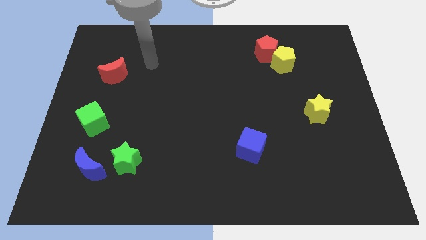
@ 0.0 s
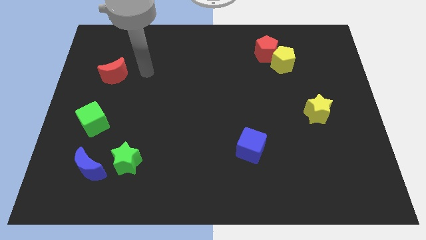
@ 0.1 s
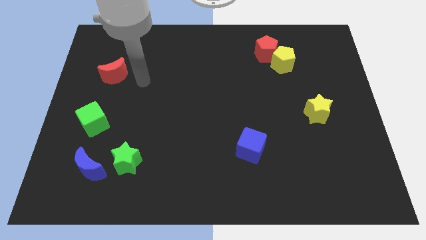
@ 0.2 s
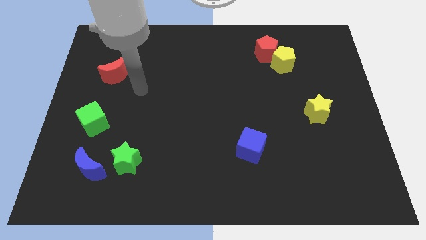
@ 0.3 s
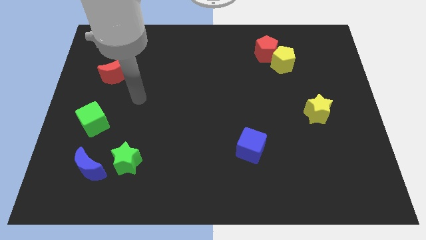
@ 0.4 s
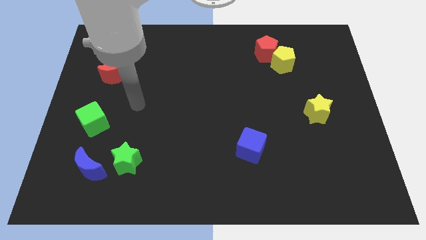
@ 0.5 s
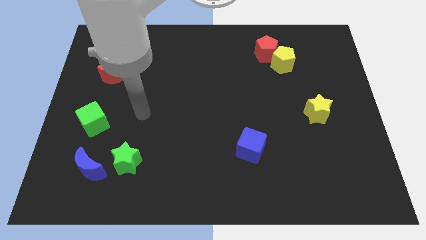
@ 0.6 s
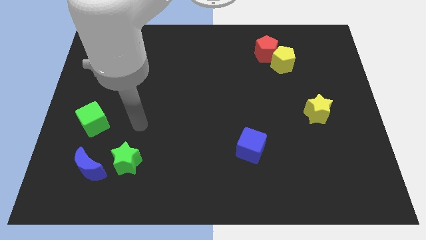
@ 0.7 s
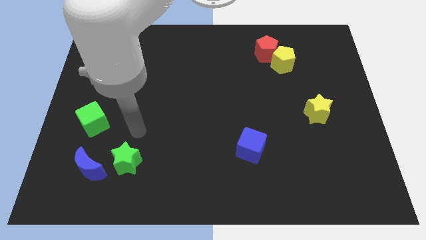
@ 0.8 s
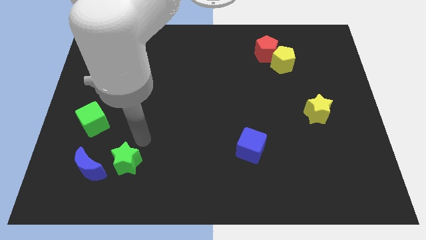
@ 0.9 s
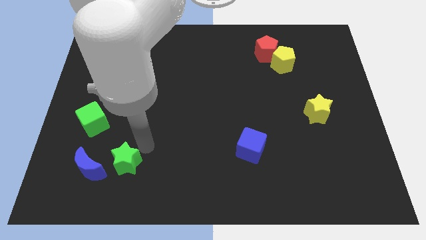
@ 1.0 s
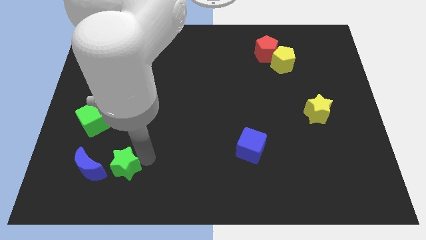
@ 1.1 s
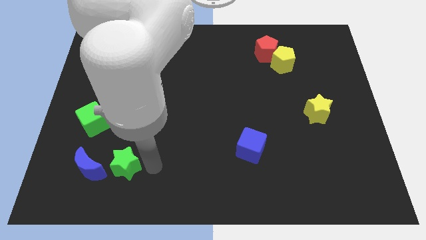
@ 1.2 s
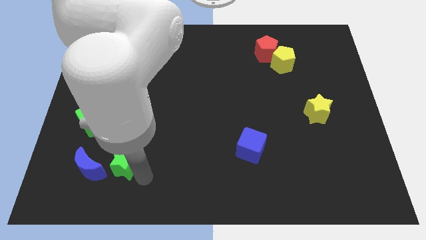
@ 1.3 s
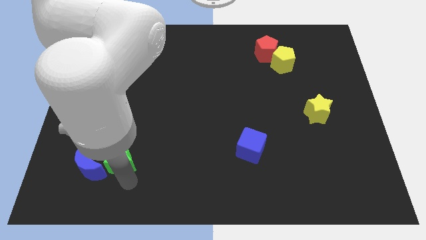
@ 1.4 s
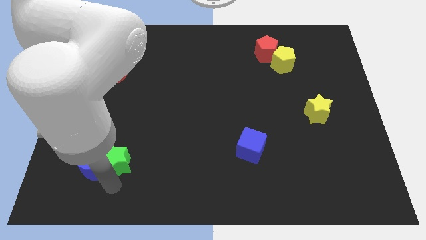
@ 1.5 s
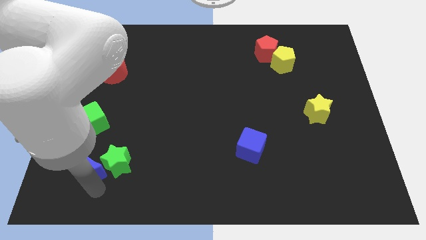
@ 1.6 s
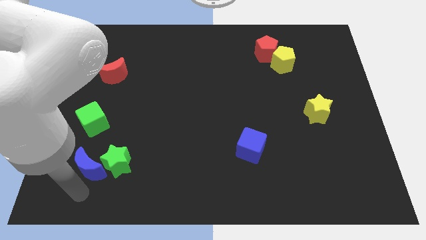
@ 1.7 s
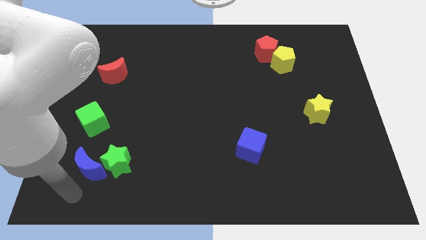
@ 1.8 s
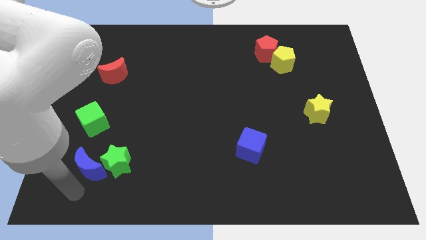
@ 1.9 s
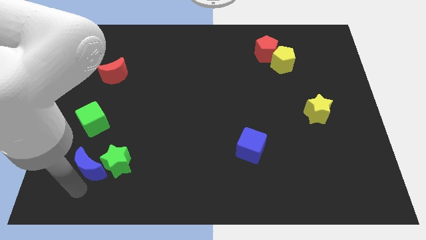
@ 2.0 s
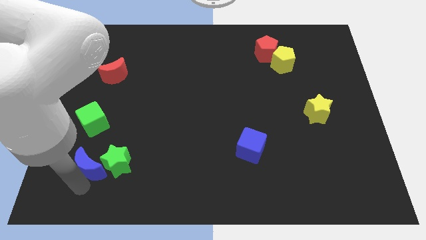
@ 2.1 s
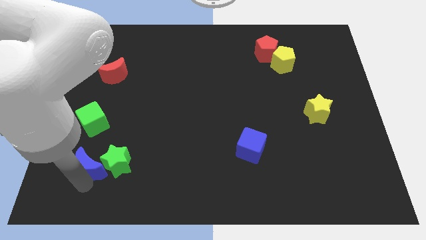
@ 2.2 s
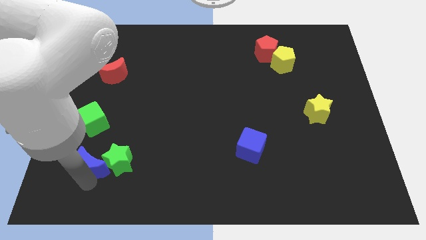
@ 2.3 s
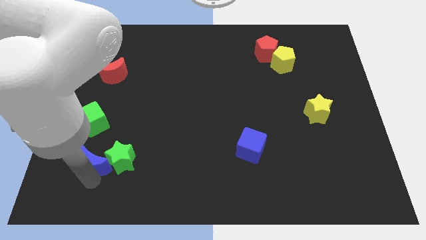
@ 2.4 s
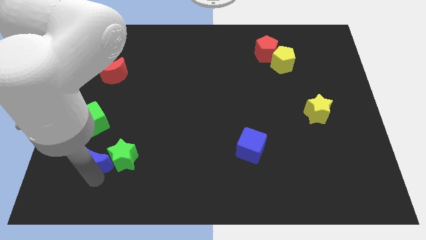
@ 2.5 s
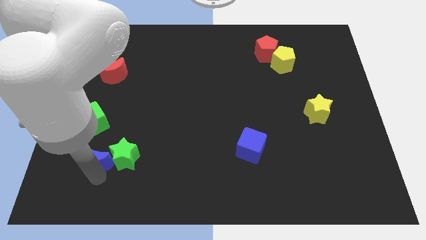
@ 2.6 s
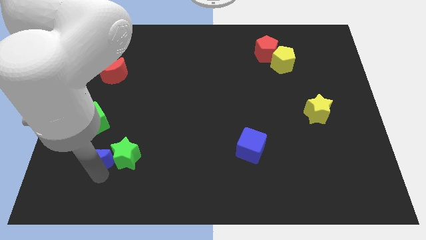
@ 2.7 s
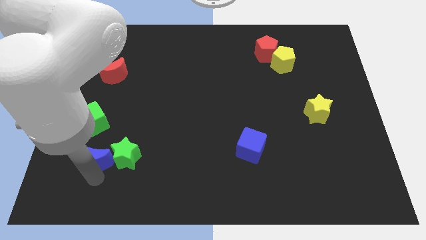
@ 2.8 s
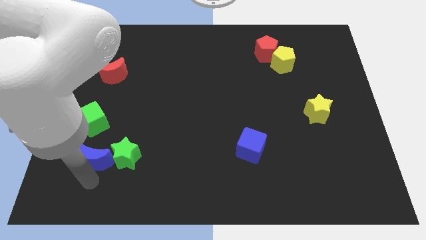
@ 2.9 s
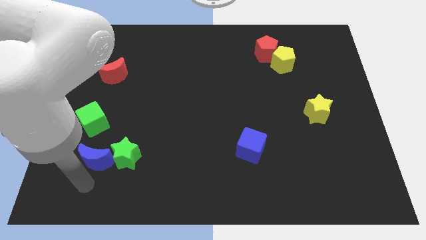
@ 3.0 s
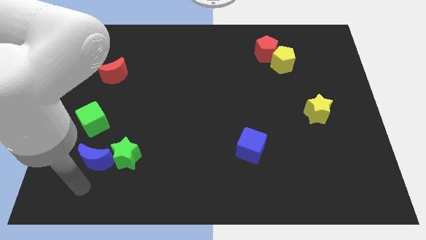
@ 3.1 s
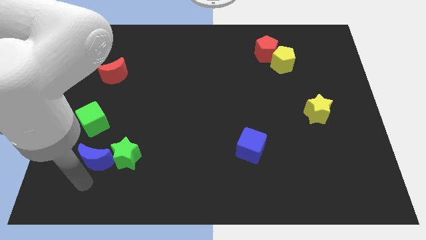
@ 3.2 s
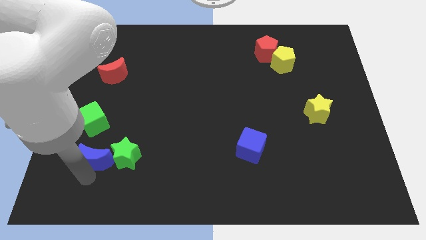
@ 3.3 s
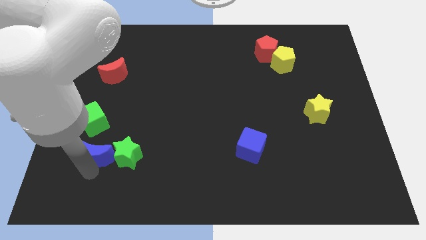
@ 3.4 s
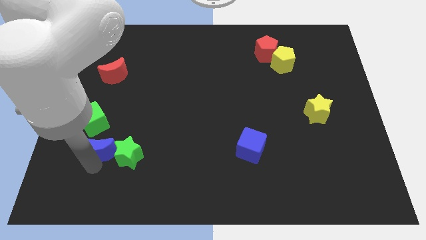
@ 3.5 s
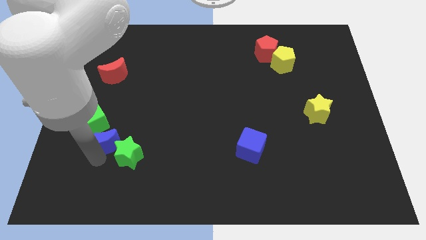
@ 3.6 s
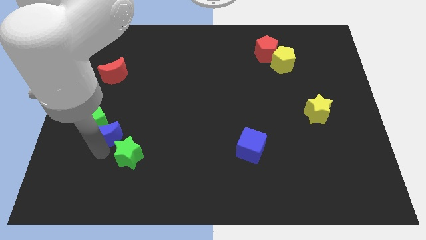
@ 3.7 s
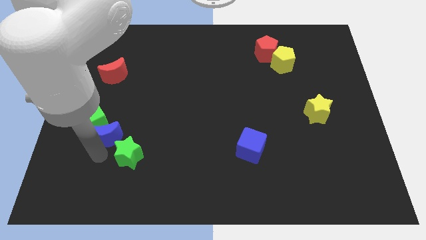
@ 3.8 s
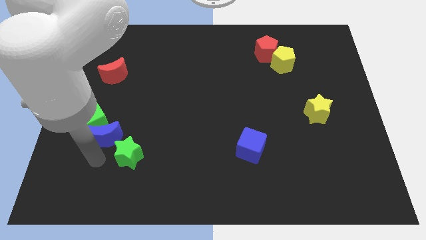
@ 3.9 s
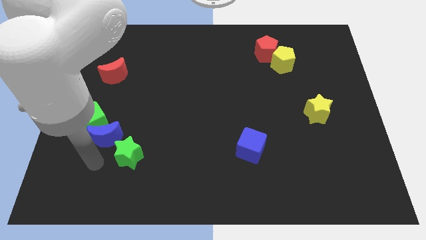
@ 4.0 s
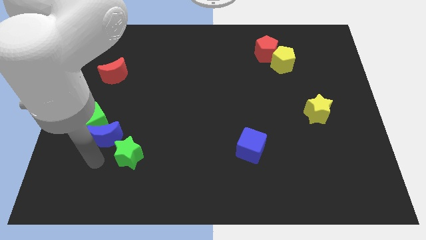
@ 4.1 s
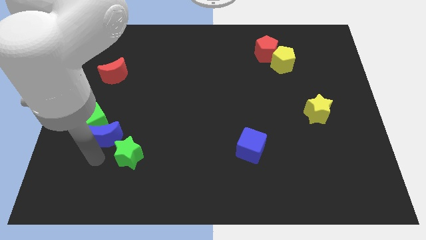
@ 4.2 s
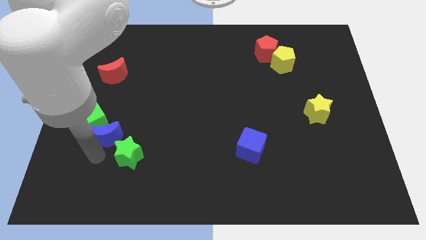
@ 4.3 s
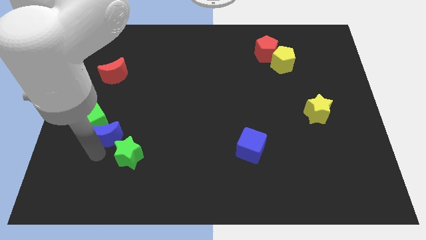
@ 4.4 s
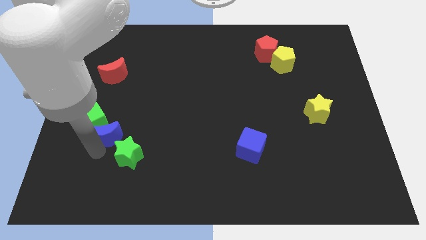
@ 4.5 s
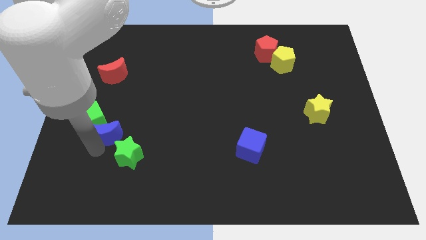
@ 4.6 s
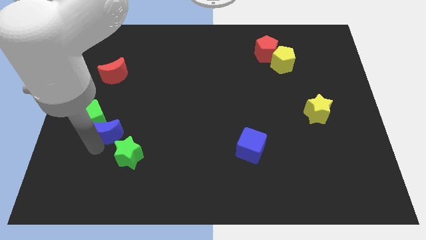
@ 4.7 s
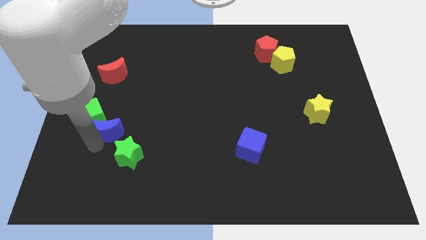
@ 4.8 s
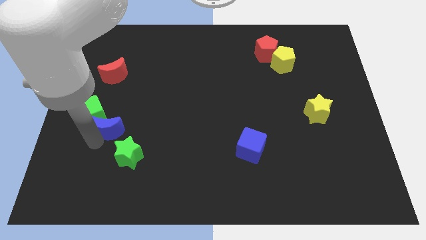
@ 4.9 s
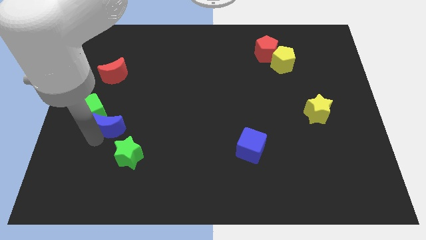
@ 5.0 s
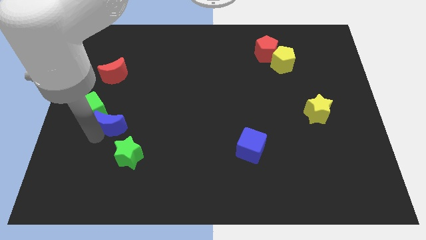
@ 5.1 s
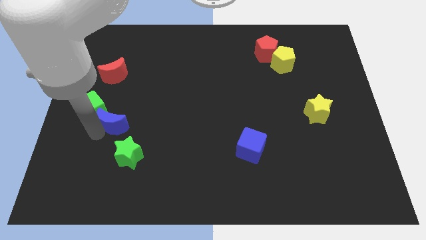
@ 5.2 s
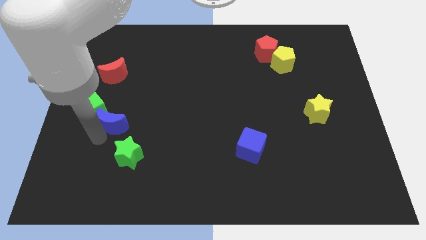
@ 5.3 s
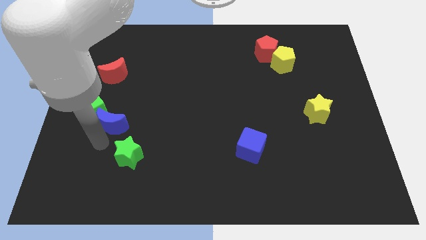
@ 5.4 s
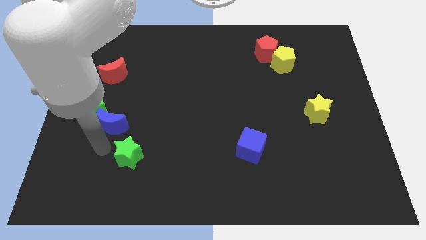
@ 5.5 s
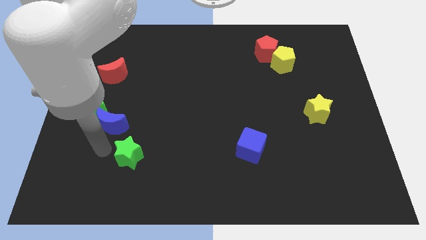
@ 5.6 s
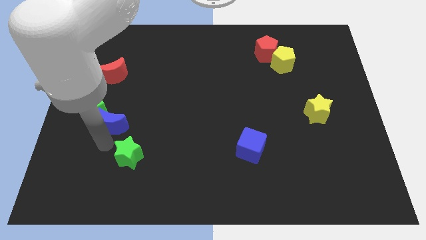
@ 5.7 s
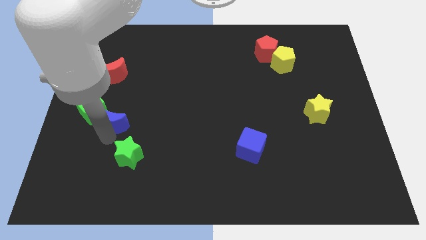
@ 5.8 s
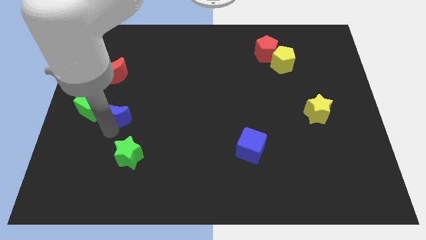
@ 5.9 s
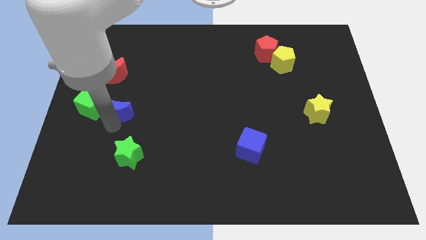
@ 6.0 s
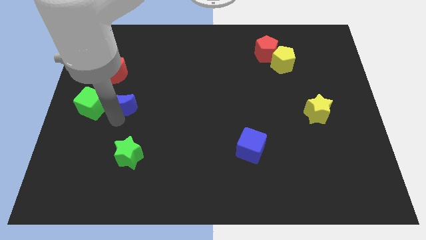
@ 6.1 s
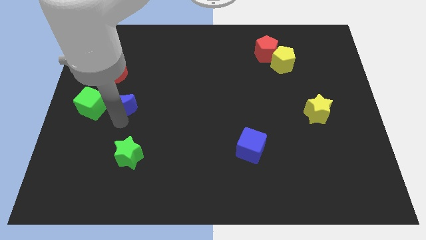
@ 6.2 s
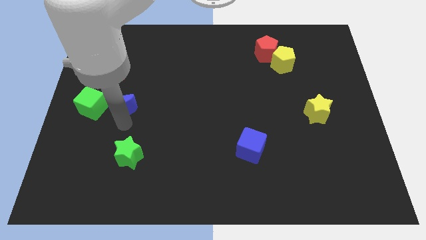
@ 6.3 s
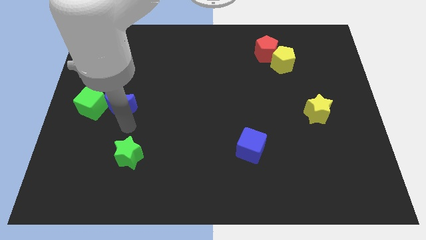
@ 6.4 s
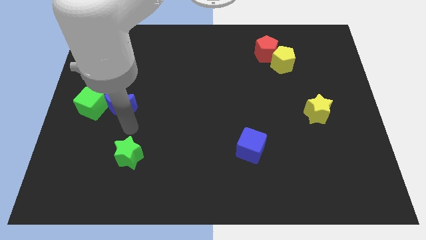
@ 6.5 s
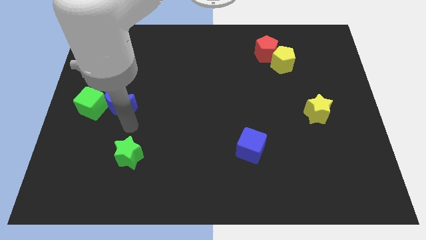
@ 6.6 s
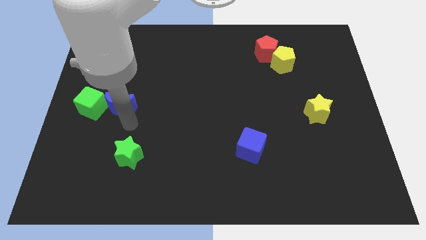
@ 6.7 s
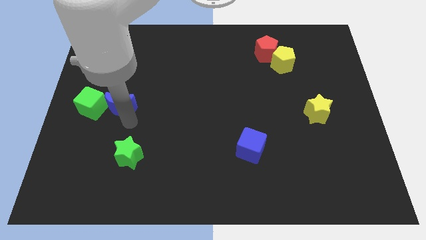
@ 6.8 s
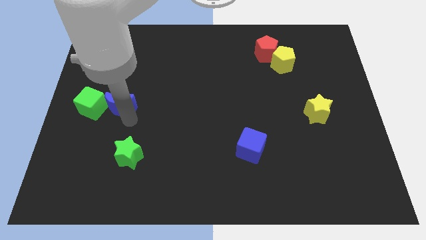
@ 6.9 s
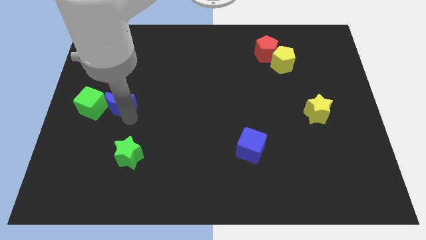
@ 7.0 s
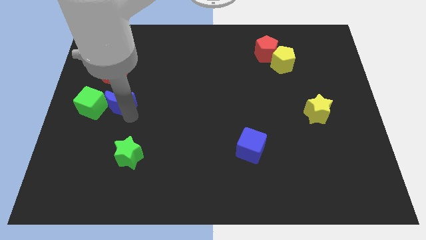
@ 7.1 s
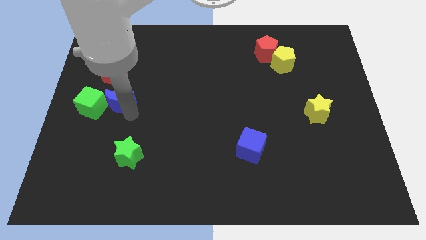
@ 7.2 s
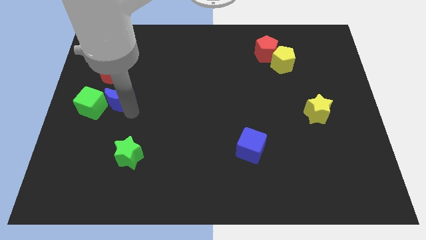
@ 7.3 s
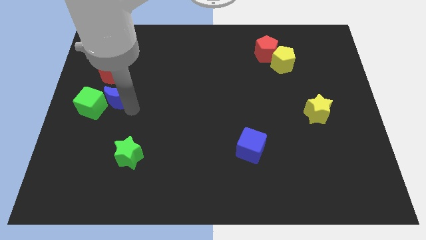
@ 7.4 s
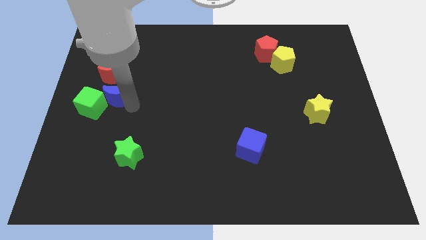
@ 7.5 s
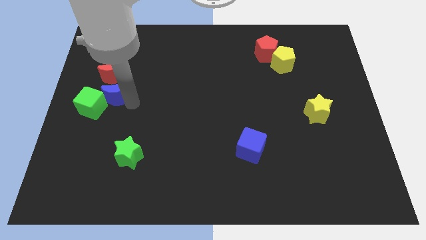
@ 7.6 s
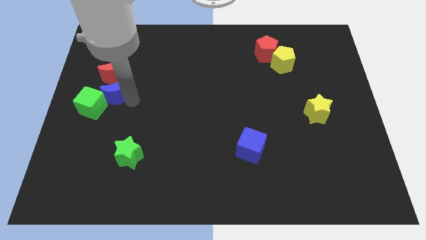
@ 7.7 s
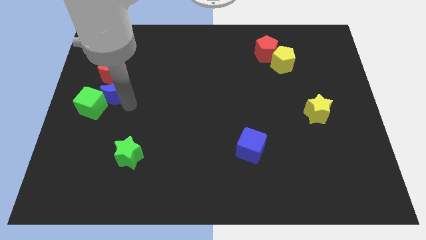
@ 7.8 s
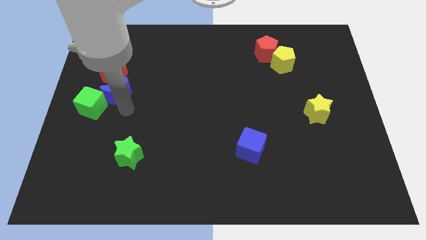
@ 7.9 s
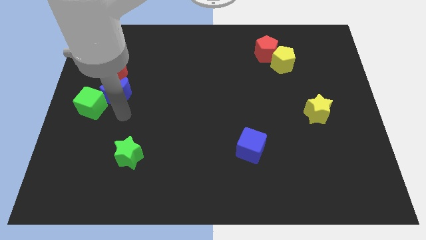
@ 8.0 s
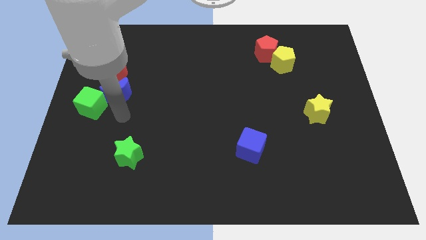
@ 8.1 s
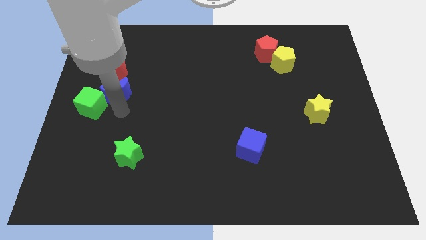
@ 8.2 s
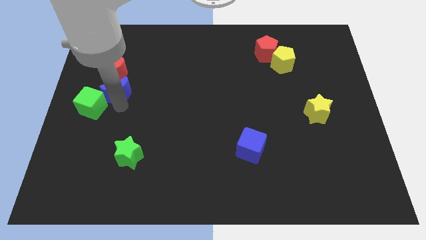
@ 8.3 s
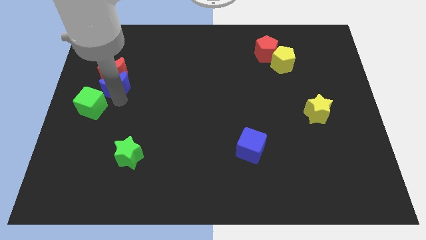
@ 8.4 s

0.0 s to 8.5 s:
push the blue moon next to the red moon
